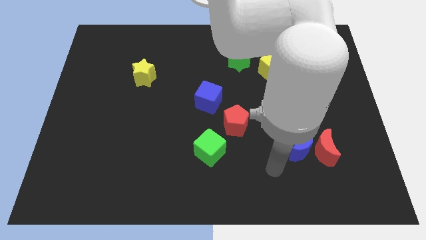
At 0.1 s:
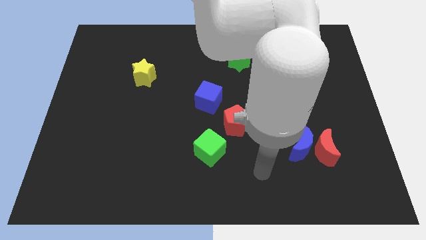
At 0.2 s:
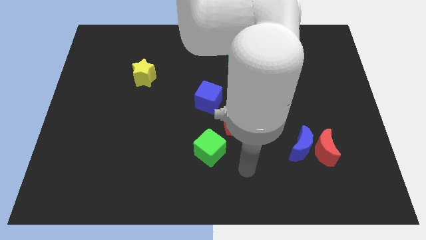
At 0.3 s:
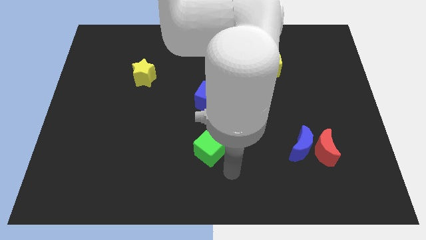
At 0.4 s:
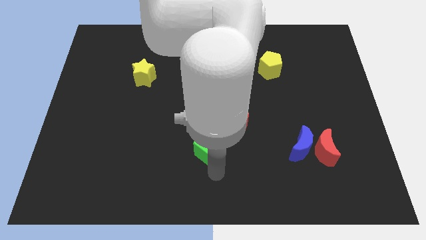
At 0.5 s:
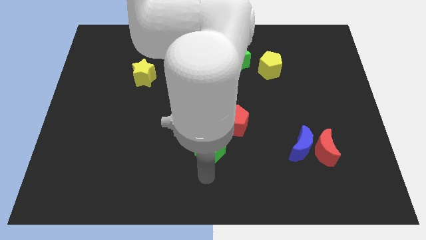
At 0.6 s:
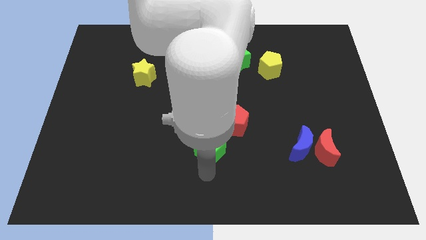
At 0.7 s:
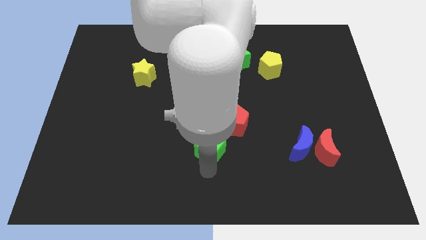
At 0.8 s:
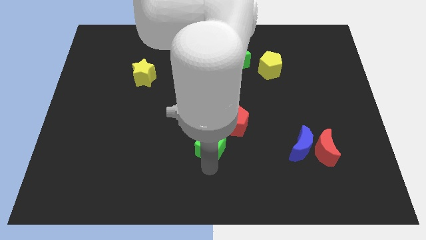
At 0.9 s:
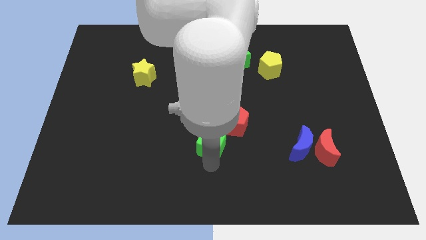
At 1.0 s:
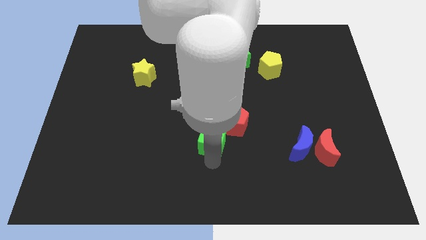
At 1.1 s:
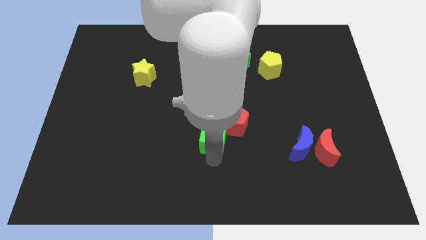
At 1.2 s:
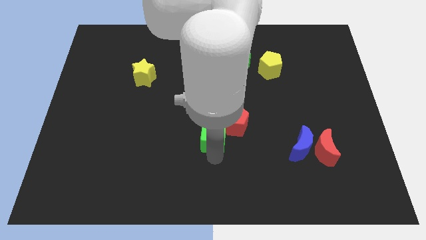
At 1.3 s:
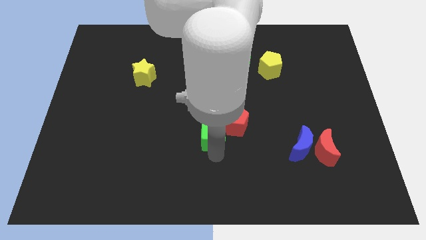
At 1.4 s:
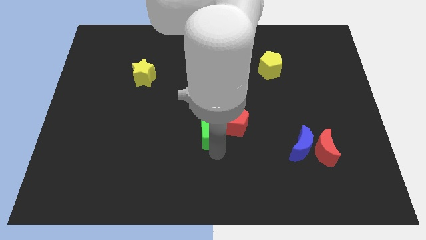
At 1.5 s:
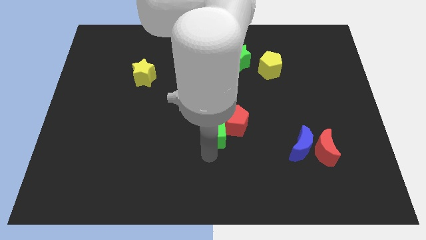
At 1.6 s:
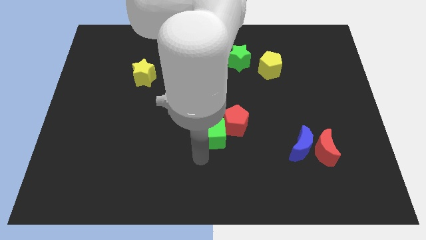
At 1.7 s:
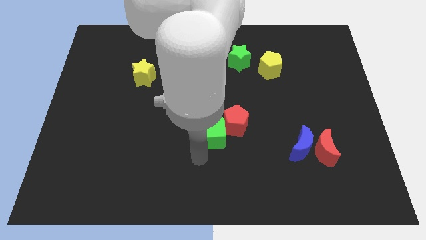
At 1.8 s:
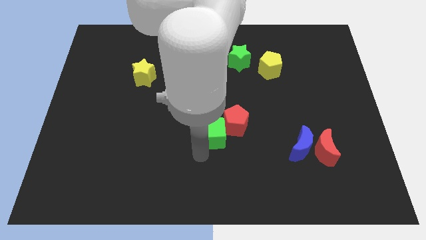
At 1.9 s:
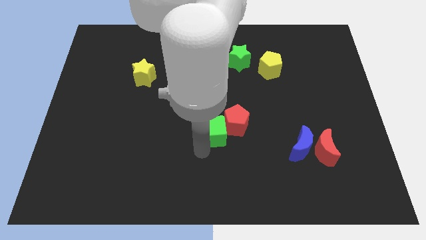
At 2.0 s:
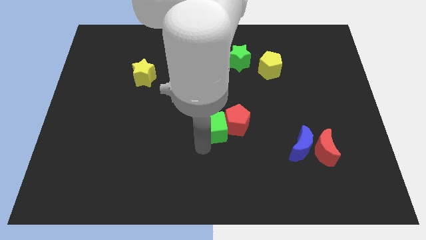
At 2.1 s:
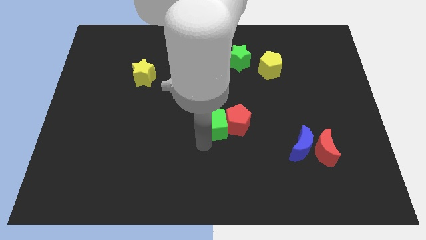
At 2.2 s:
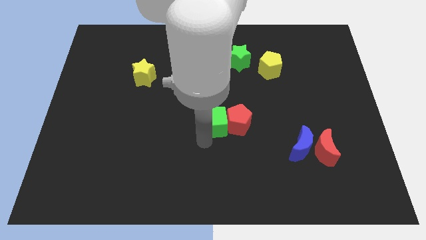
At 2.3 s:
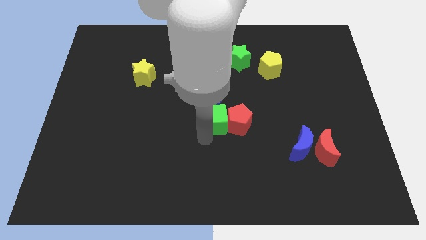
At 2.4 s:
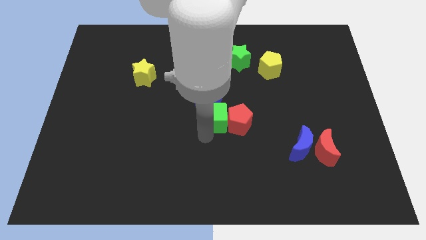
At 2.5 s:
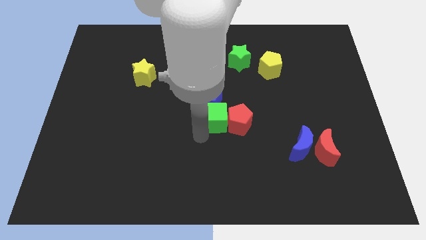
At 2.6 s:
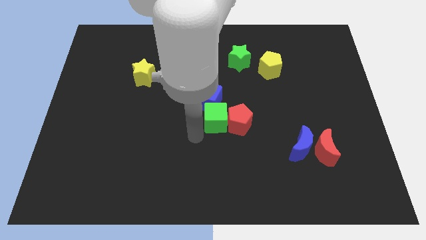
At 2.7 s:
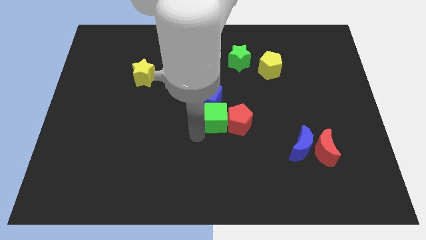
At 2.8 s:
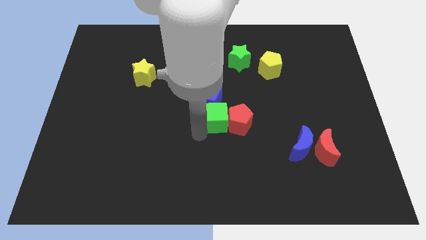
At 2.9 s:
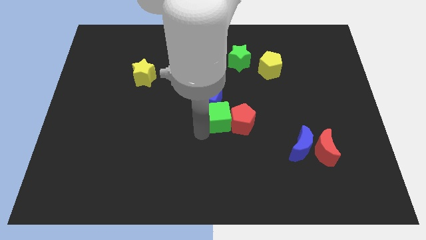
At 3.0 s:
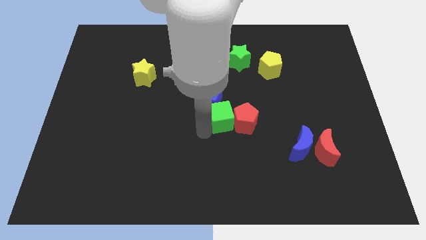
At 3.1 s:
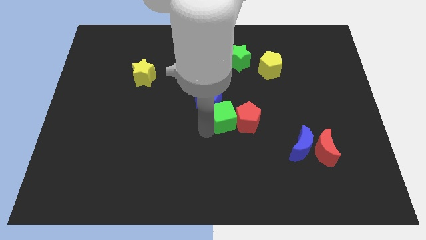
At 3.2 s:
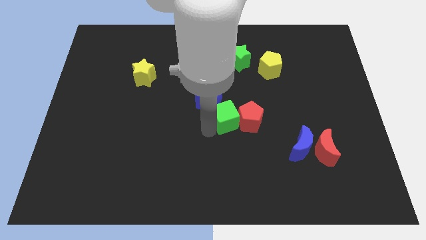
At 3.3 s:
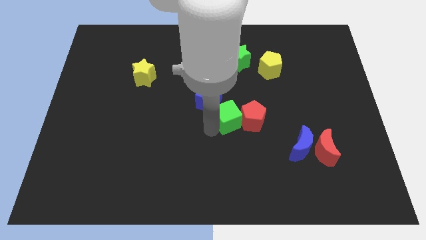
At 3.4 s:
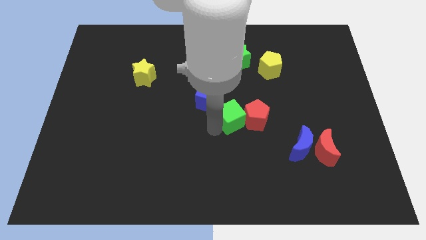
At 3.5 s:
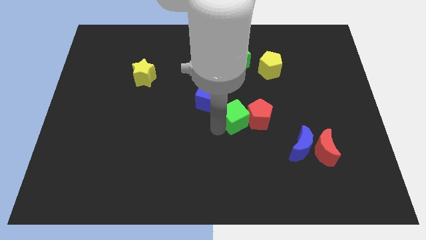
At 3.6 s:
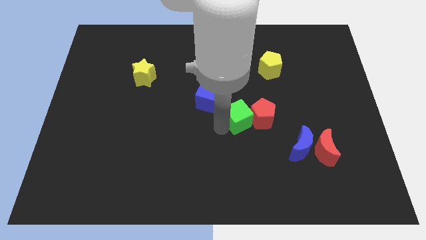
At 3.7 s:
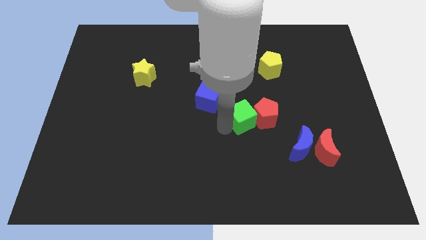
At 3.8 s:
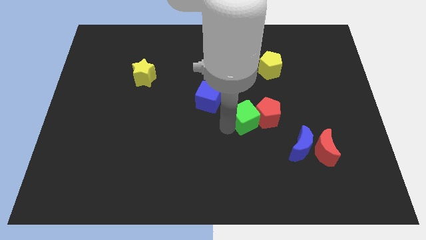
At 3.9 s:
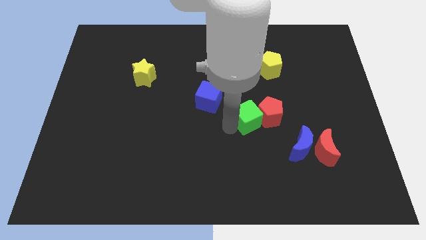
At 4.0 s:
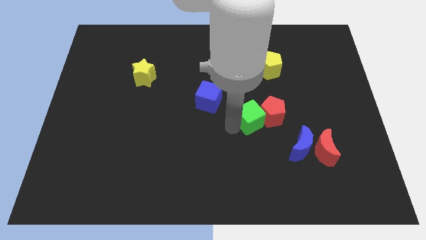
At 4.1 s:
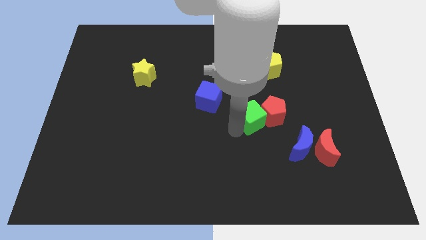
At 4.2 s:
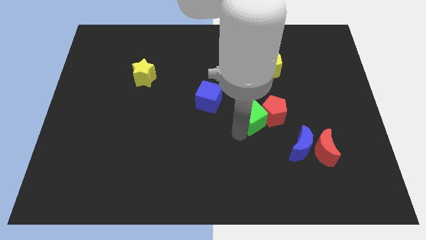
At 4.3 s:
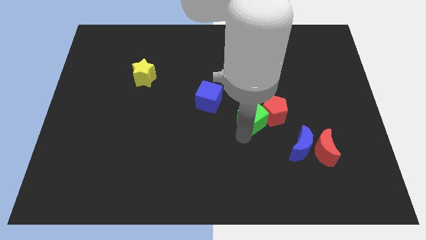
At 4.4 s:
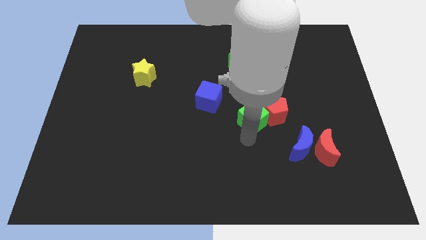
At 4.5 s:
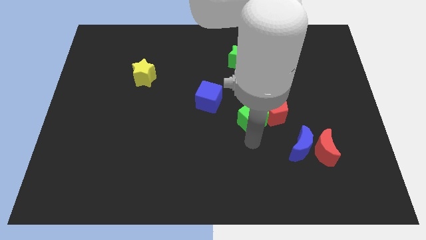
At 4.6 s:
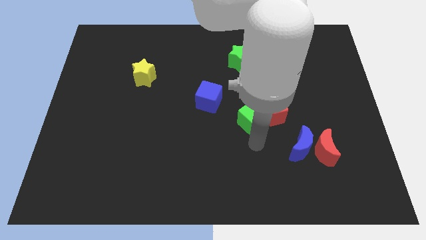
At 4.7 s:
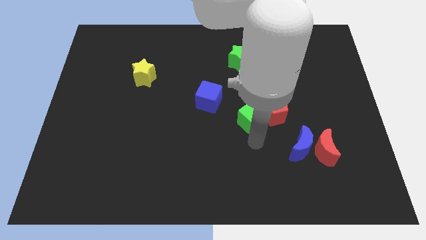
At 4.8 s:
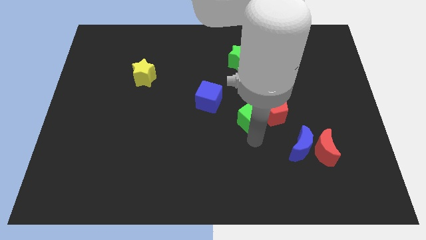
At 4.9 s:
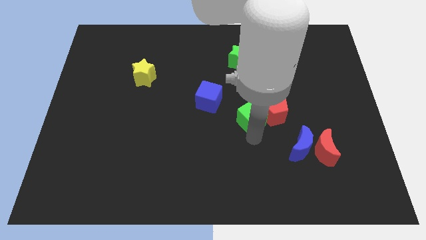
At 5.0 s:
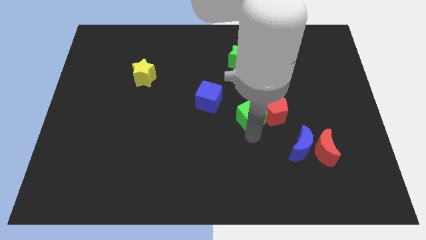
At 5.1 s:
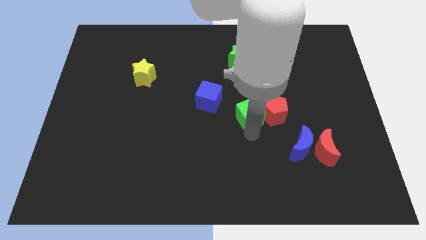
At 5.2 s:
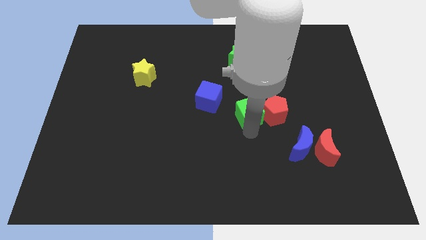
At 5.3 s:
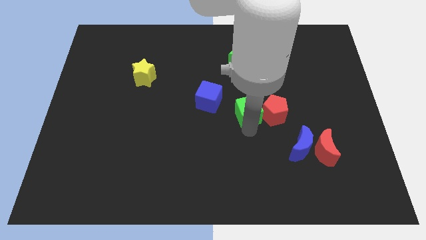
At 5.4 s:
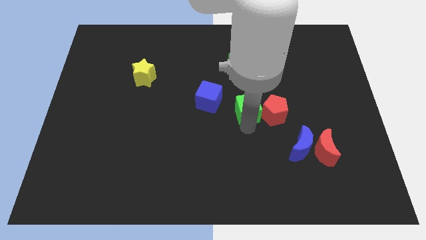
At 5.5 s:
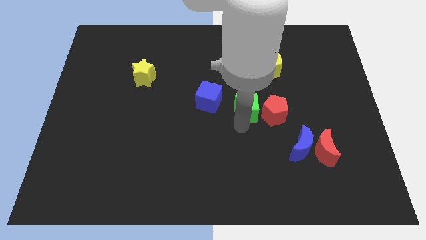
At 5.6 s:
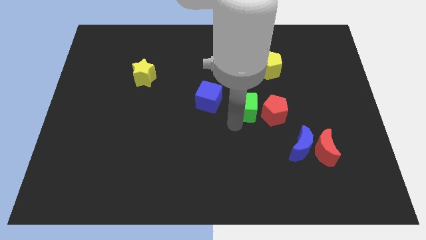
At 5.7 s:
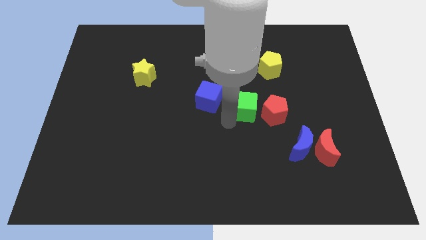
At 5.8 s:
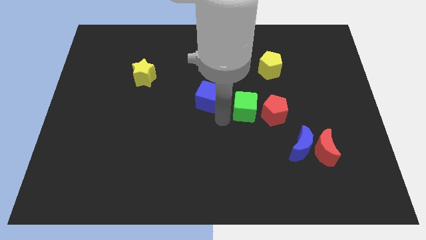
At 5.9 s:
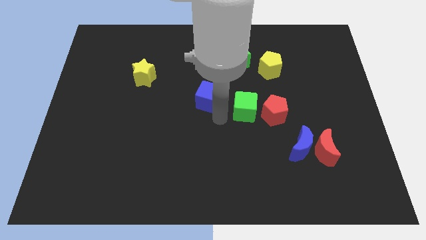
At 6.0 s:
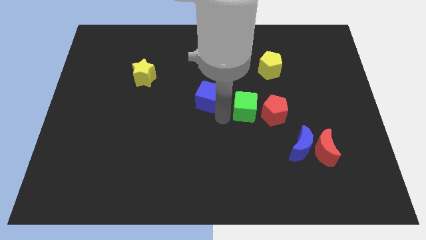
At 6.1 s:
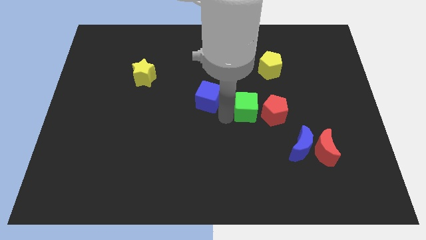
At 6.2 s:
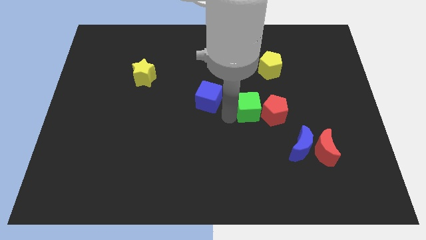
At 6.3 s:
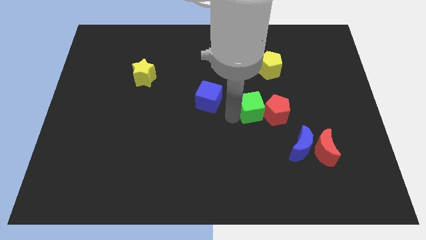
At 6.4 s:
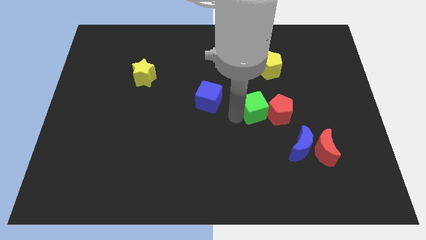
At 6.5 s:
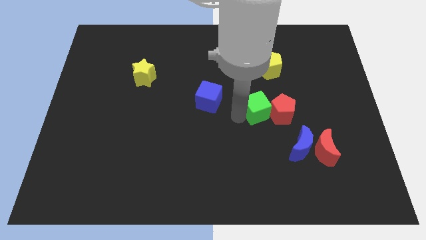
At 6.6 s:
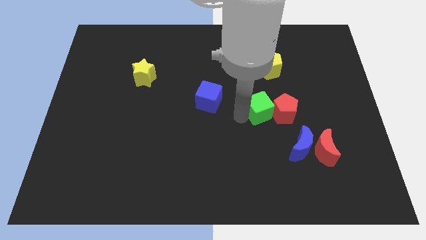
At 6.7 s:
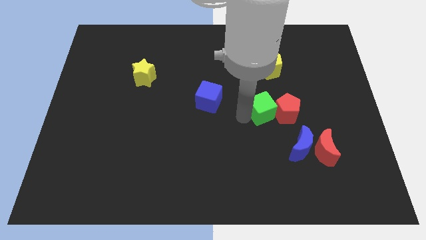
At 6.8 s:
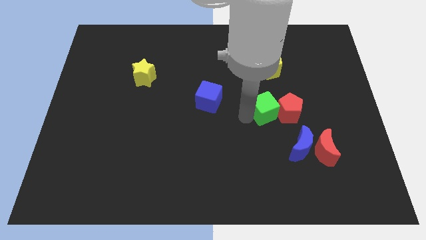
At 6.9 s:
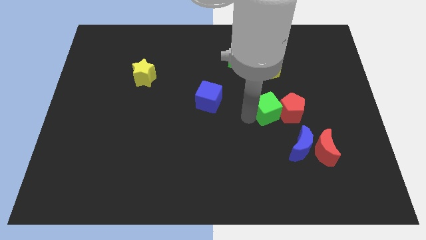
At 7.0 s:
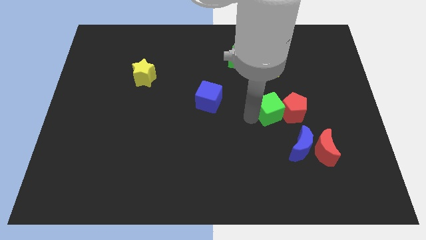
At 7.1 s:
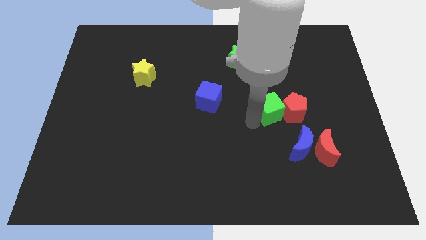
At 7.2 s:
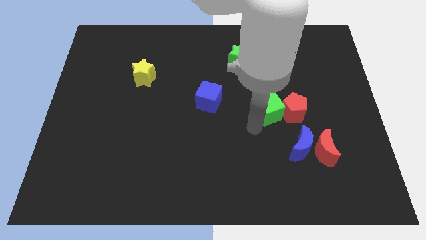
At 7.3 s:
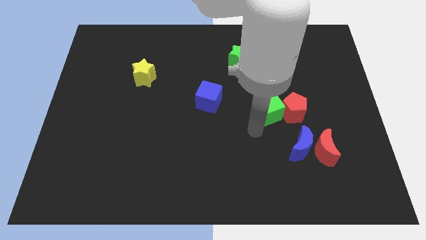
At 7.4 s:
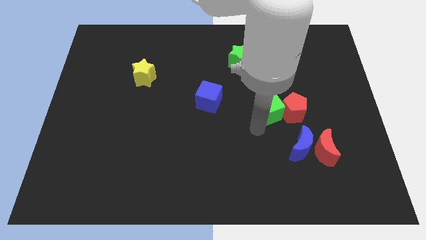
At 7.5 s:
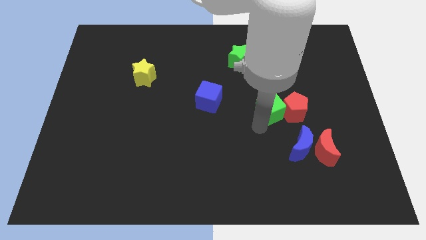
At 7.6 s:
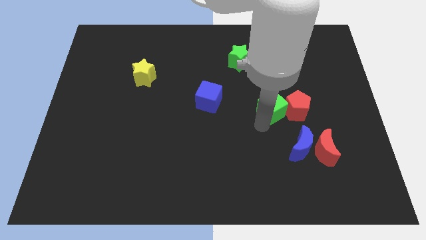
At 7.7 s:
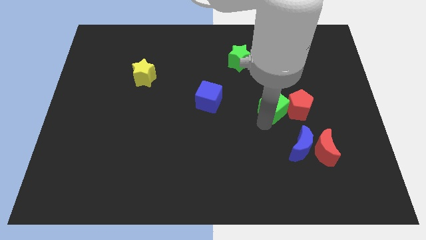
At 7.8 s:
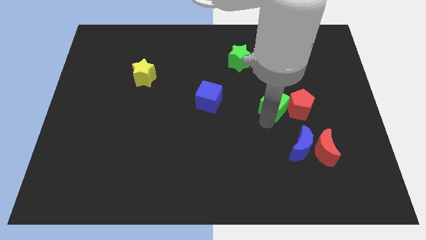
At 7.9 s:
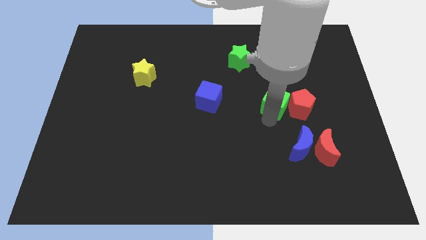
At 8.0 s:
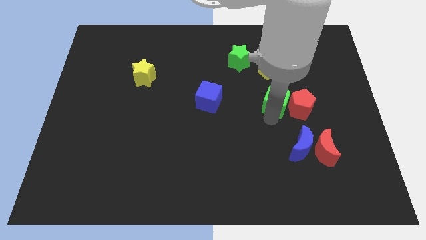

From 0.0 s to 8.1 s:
slide the green cube upwards and then right
